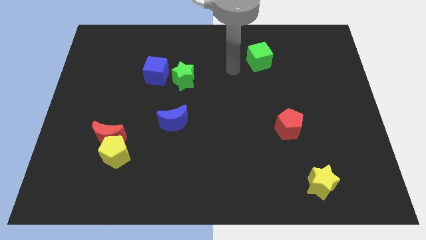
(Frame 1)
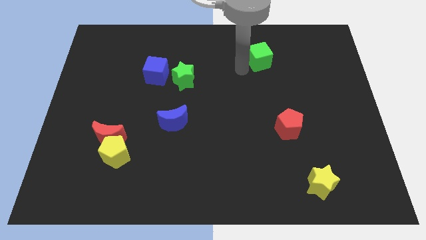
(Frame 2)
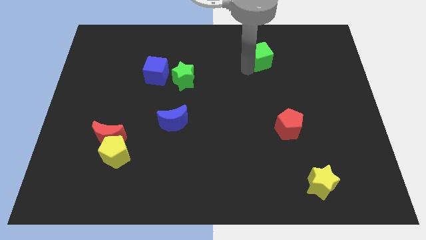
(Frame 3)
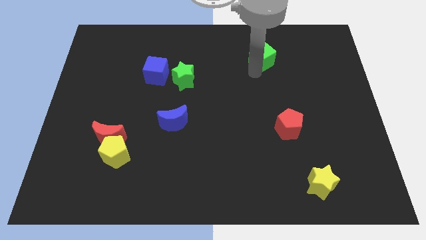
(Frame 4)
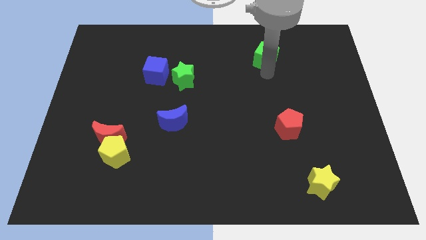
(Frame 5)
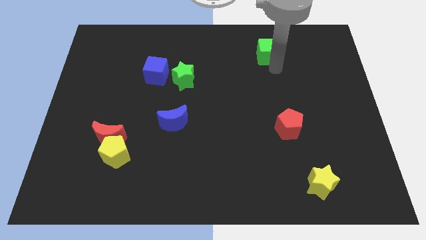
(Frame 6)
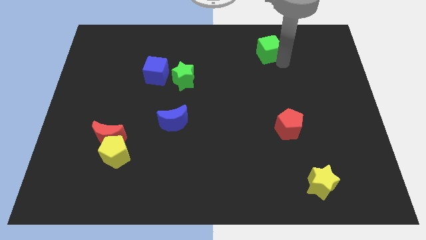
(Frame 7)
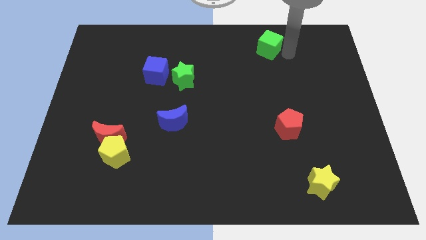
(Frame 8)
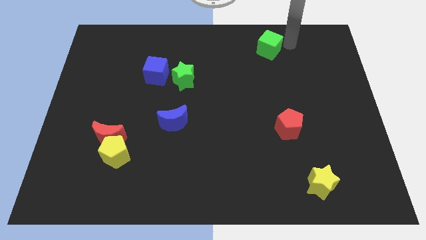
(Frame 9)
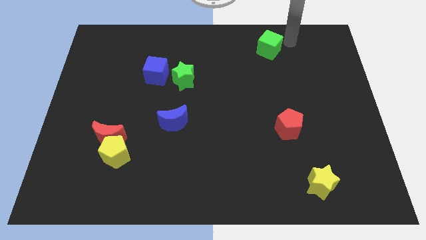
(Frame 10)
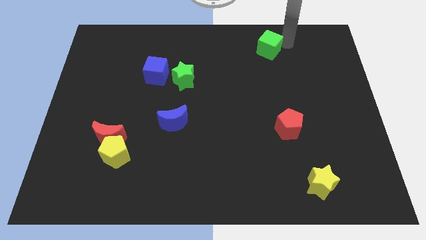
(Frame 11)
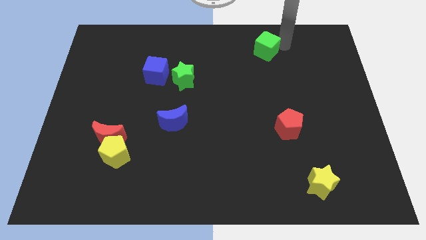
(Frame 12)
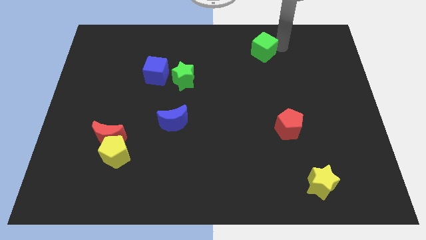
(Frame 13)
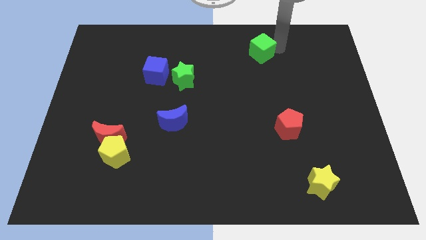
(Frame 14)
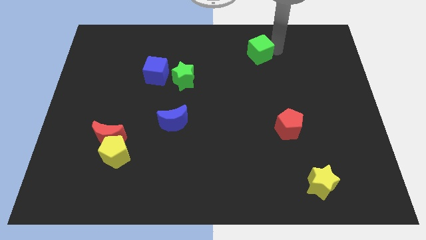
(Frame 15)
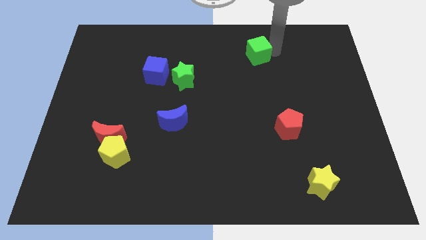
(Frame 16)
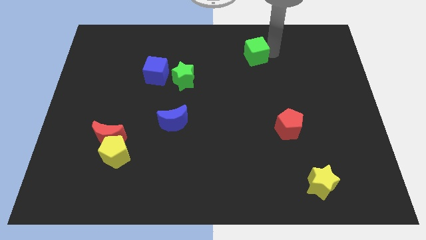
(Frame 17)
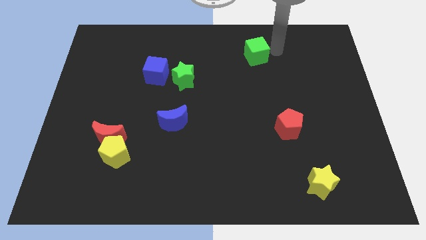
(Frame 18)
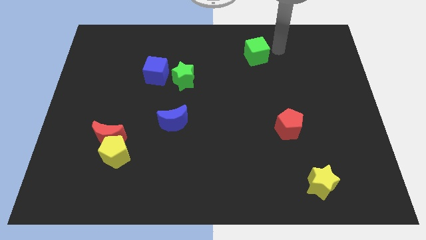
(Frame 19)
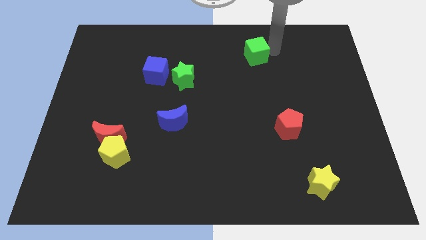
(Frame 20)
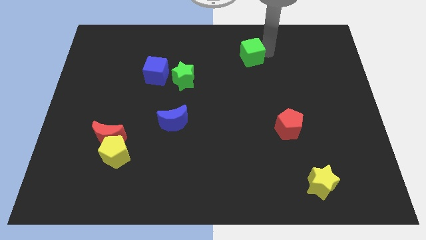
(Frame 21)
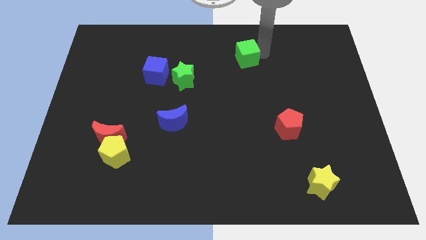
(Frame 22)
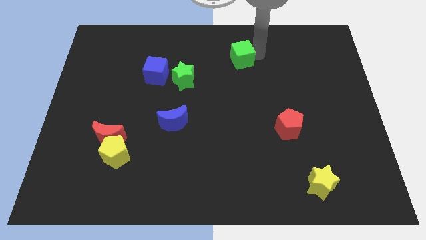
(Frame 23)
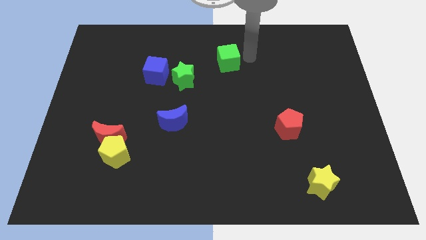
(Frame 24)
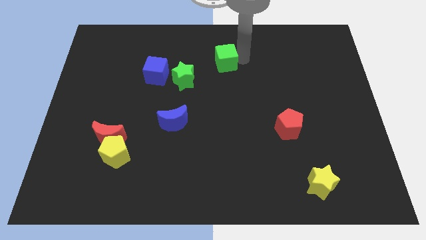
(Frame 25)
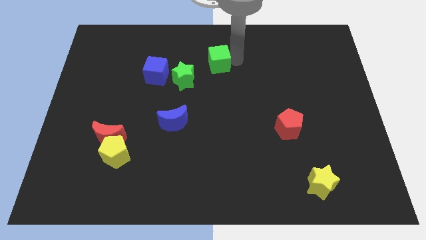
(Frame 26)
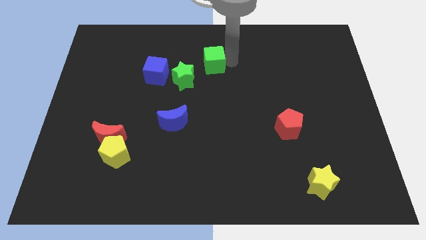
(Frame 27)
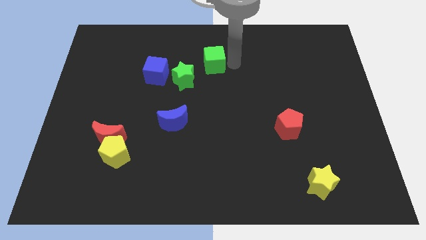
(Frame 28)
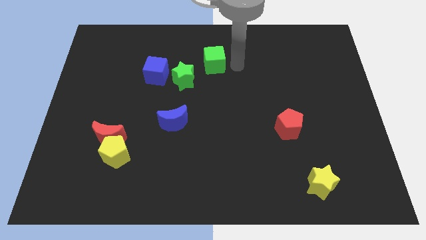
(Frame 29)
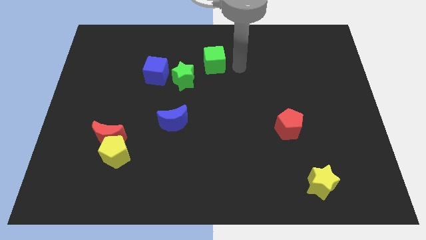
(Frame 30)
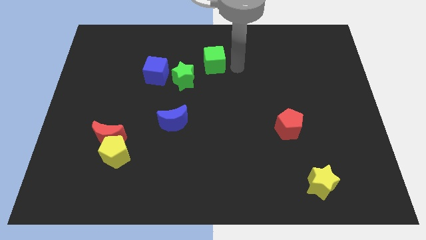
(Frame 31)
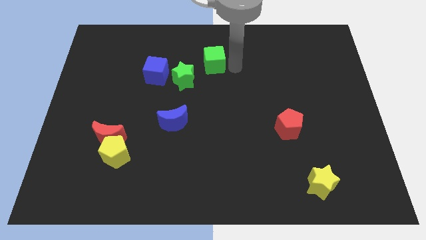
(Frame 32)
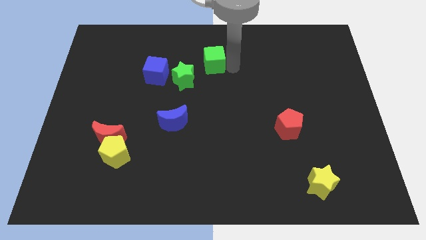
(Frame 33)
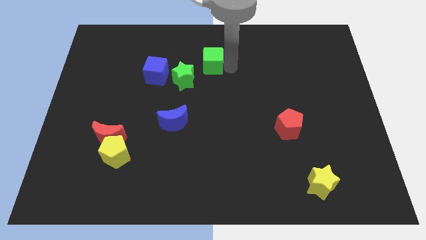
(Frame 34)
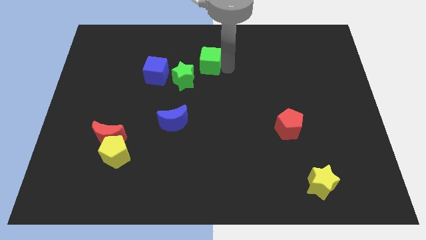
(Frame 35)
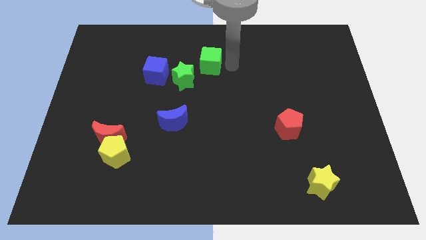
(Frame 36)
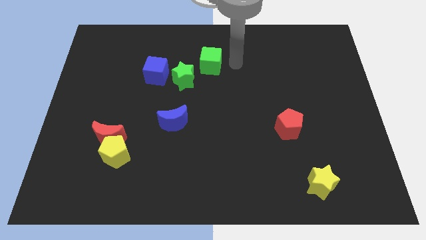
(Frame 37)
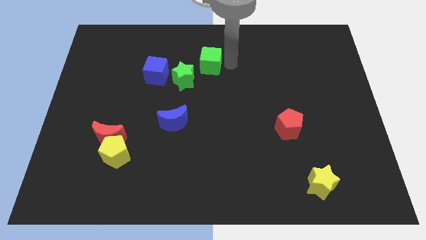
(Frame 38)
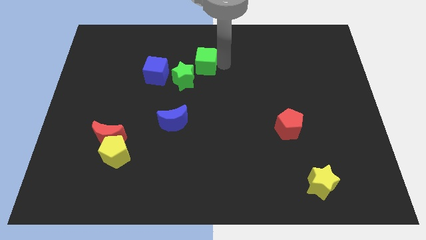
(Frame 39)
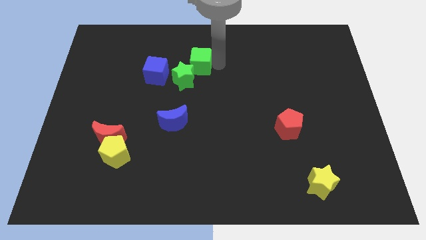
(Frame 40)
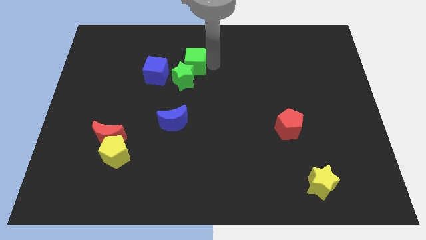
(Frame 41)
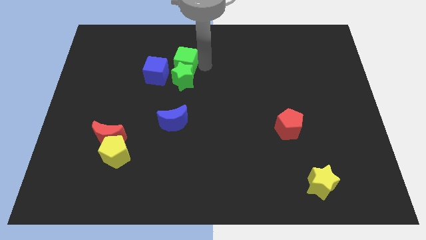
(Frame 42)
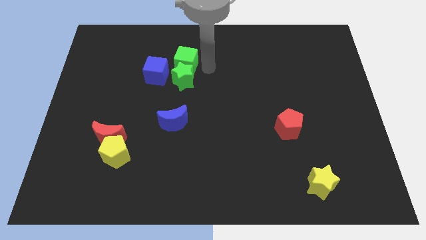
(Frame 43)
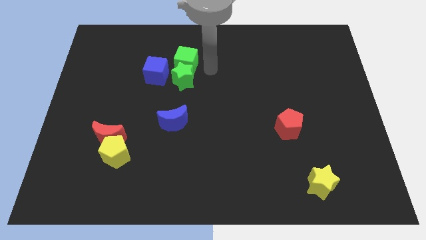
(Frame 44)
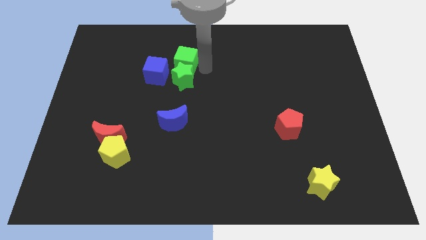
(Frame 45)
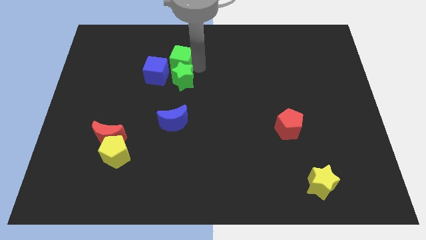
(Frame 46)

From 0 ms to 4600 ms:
push the green cube left

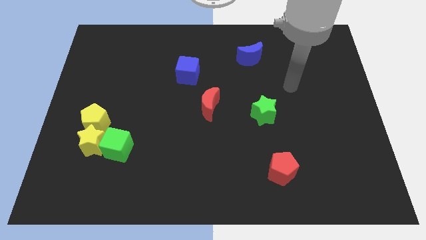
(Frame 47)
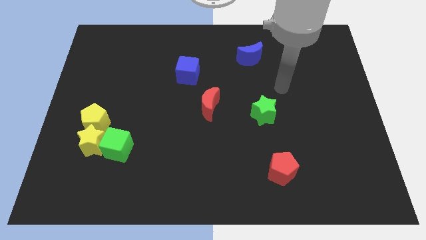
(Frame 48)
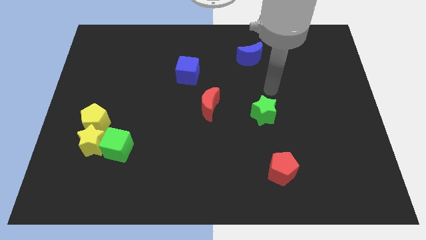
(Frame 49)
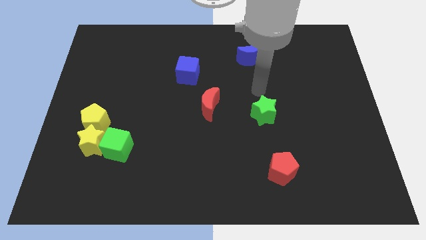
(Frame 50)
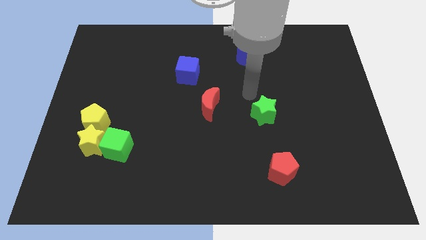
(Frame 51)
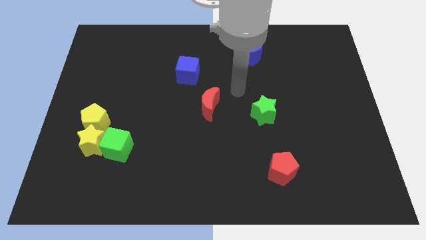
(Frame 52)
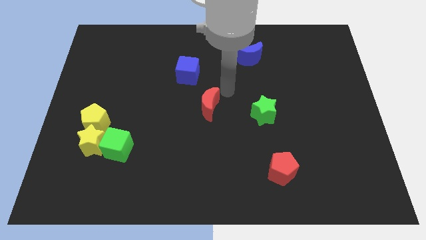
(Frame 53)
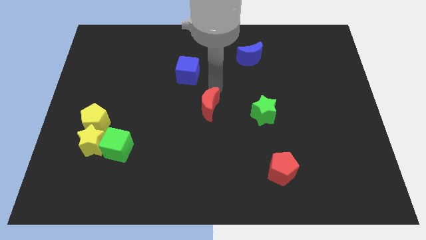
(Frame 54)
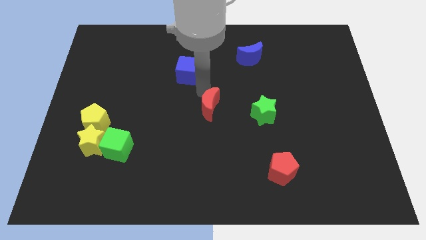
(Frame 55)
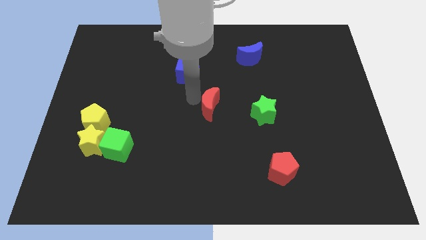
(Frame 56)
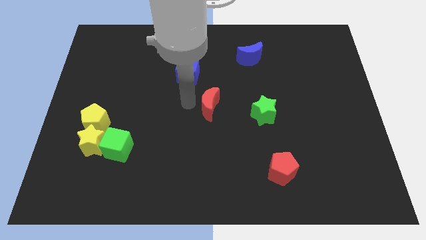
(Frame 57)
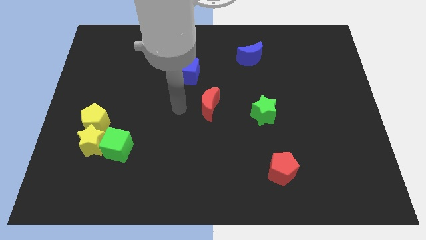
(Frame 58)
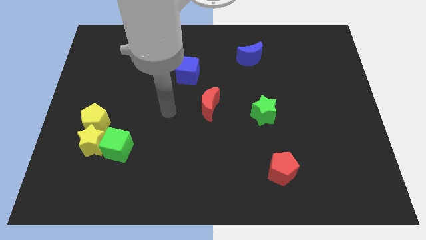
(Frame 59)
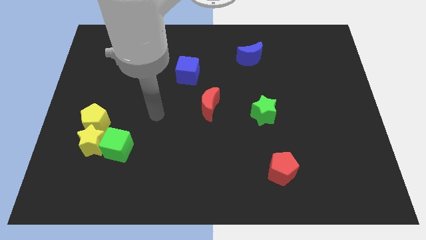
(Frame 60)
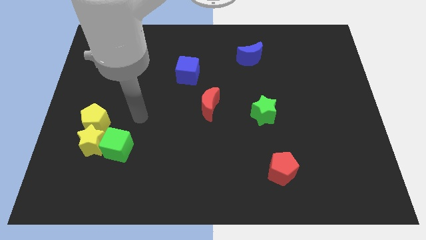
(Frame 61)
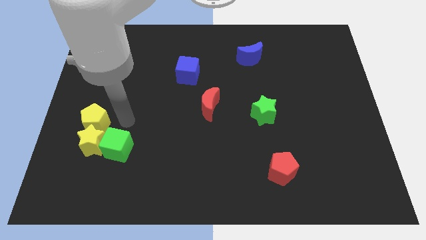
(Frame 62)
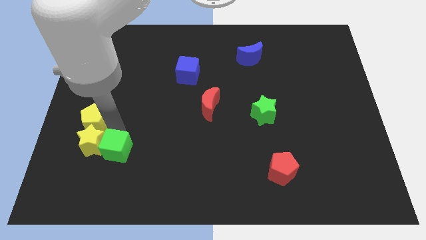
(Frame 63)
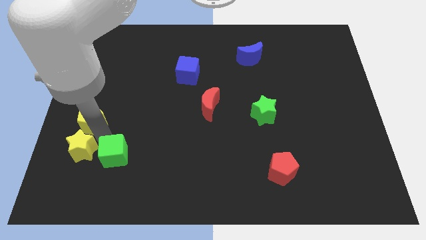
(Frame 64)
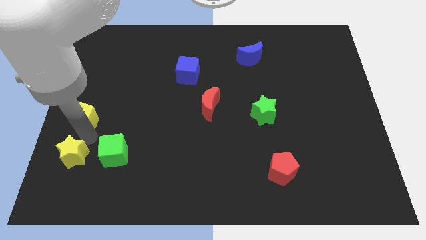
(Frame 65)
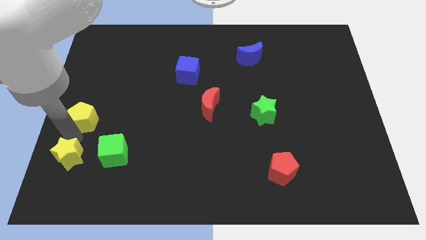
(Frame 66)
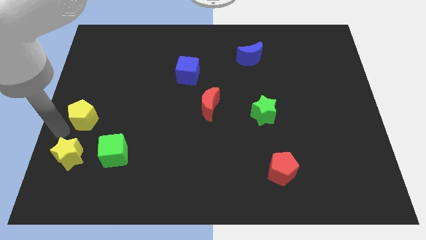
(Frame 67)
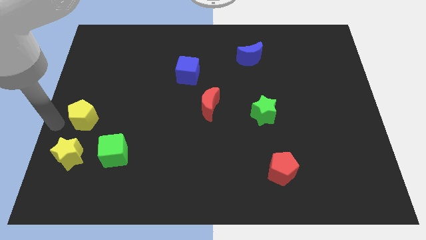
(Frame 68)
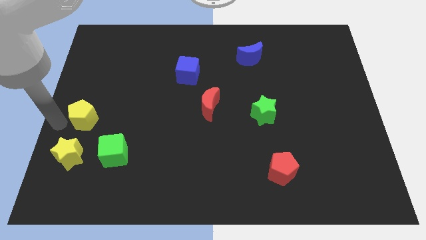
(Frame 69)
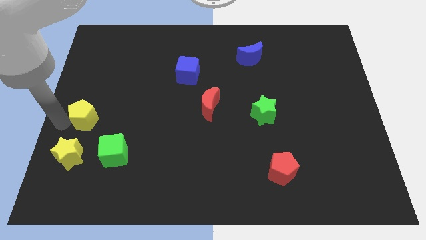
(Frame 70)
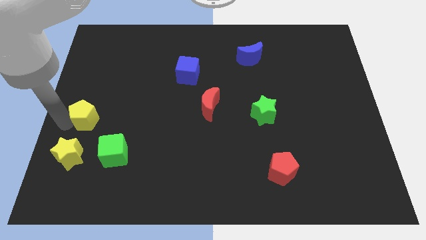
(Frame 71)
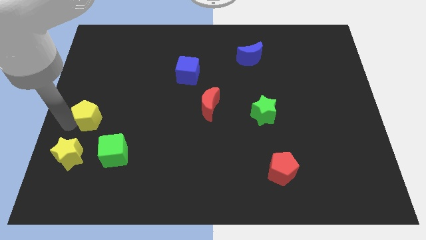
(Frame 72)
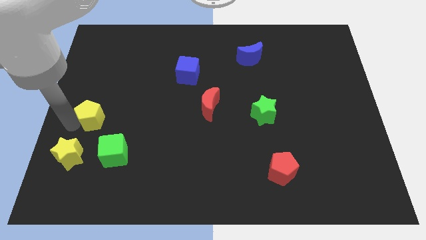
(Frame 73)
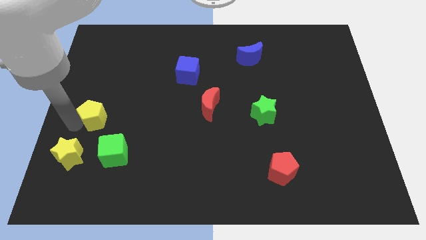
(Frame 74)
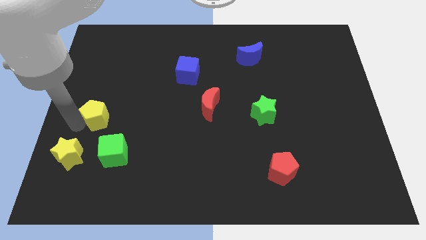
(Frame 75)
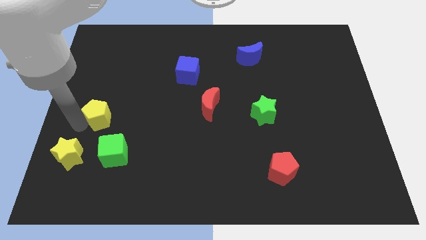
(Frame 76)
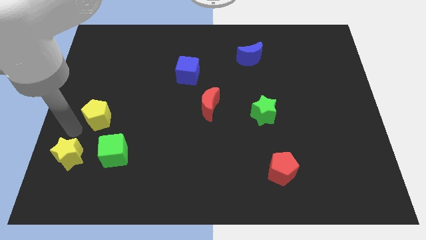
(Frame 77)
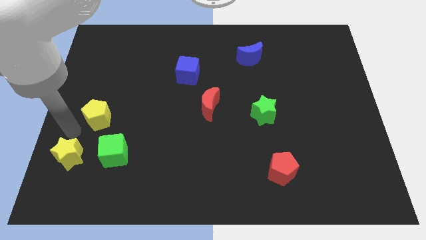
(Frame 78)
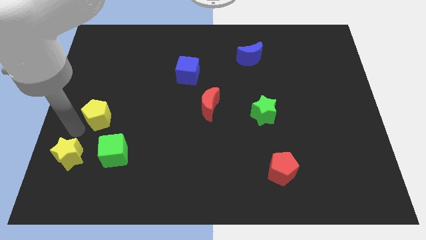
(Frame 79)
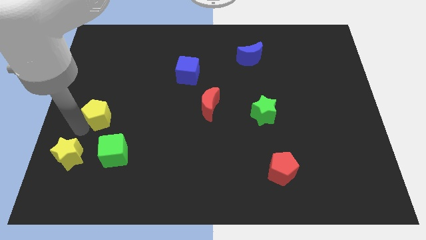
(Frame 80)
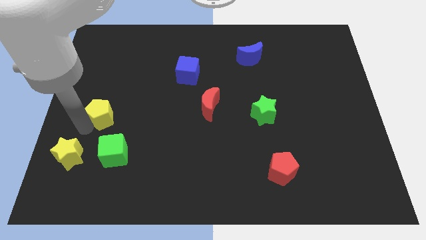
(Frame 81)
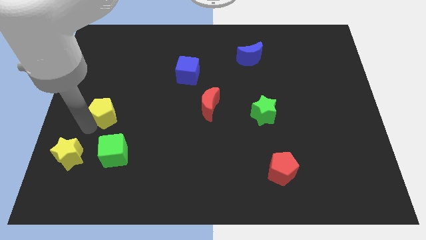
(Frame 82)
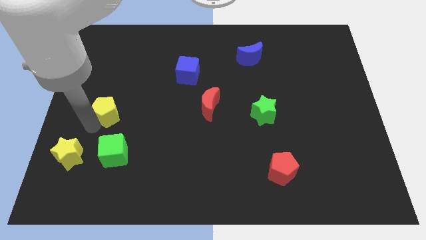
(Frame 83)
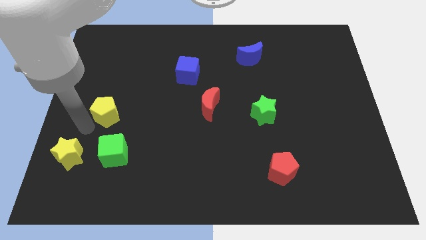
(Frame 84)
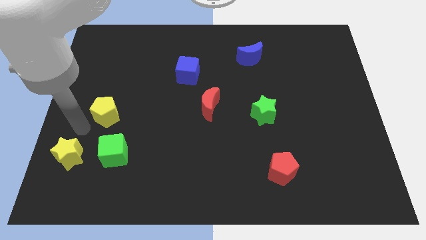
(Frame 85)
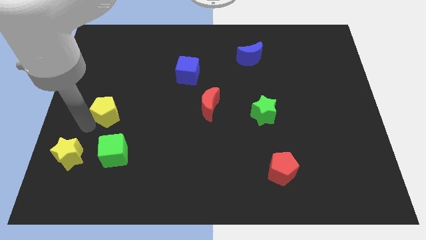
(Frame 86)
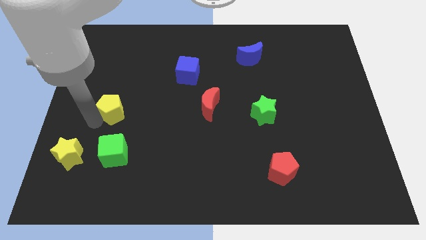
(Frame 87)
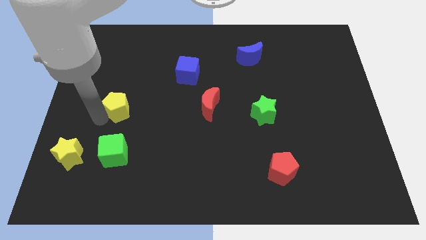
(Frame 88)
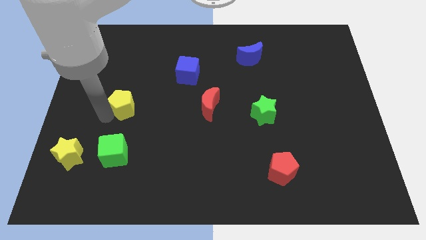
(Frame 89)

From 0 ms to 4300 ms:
push the yellow pentagon a little upwards and to the right diagonally
